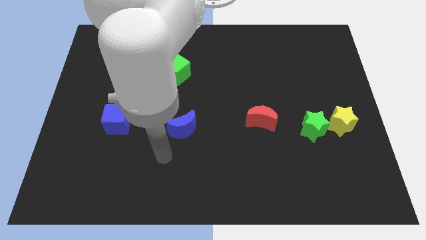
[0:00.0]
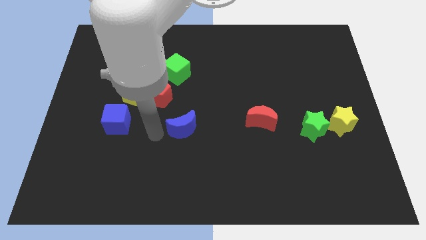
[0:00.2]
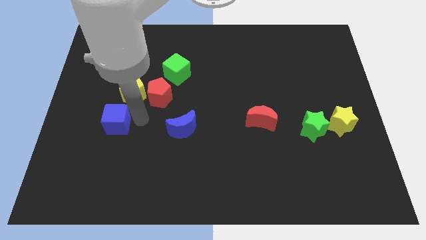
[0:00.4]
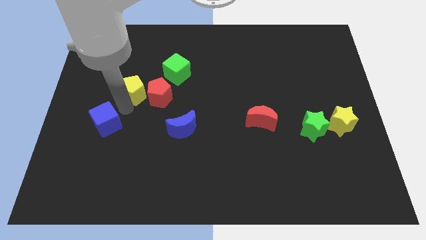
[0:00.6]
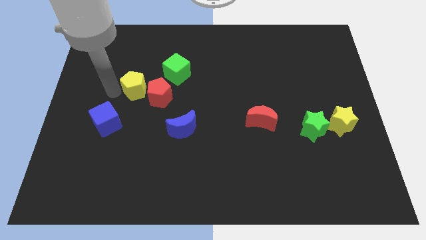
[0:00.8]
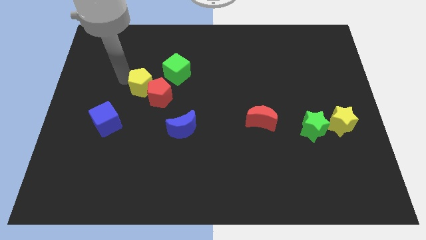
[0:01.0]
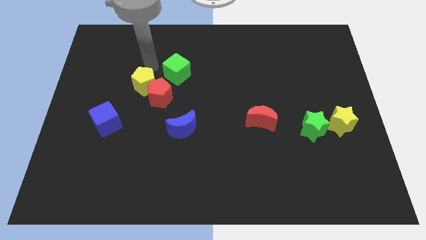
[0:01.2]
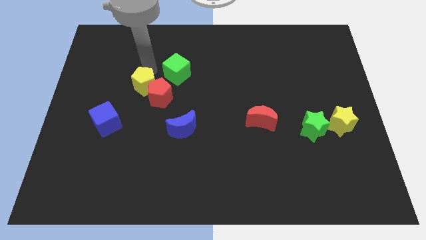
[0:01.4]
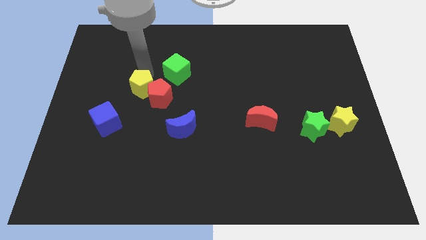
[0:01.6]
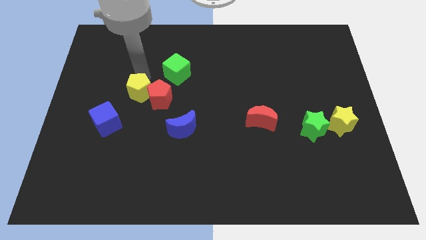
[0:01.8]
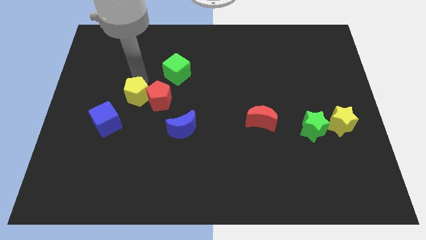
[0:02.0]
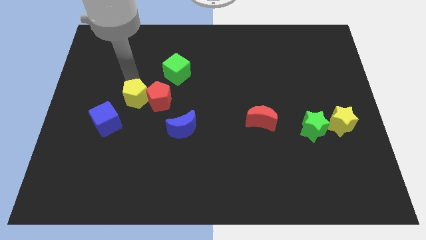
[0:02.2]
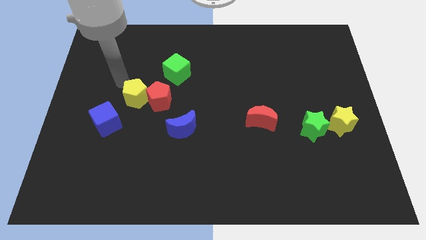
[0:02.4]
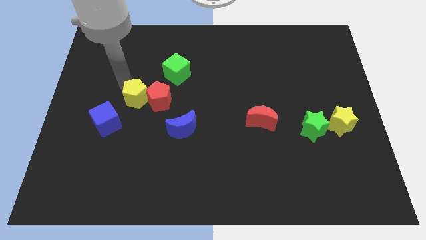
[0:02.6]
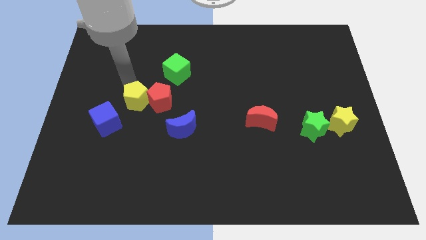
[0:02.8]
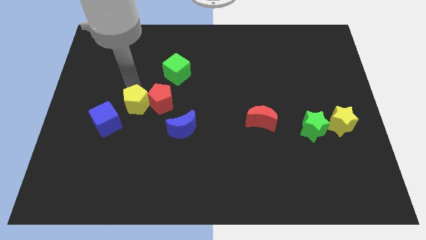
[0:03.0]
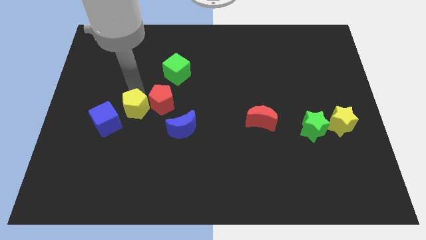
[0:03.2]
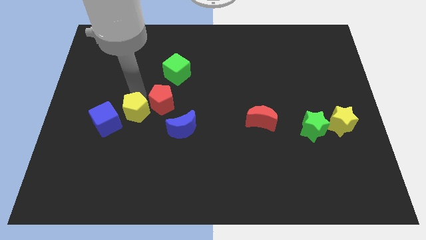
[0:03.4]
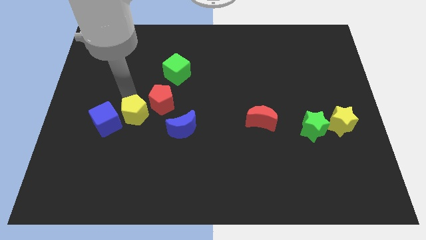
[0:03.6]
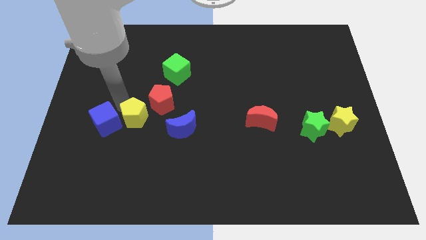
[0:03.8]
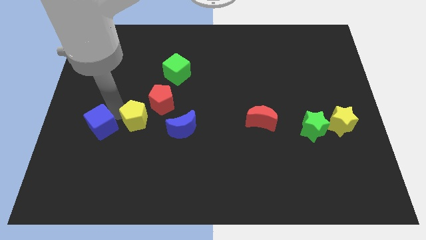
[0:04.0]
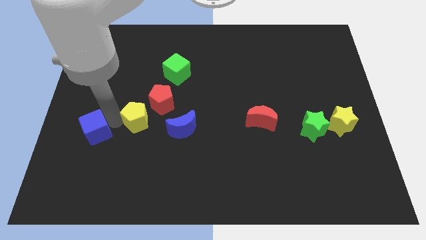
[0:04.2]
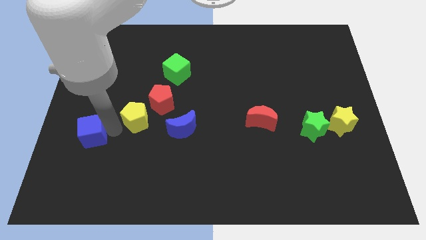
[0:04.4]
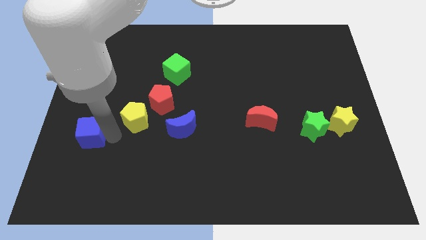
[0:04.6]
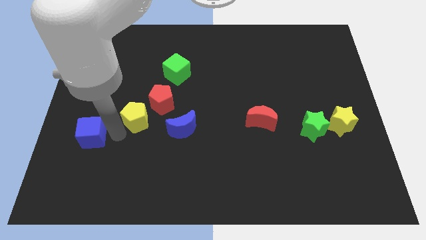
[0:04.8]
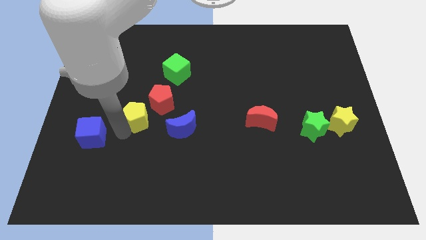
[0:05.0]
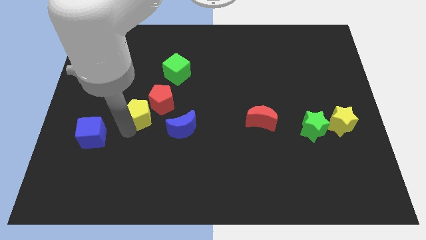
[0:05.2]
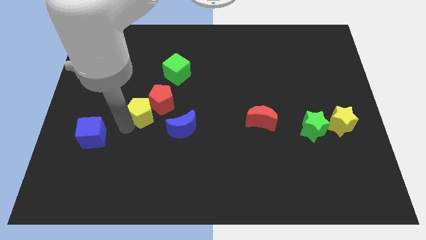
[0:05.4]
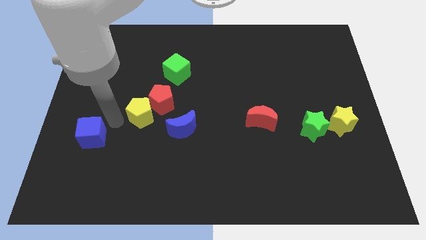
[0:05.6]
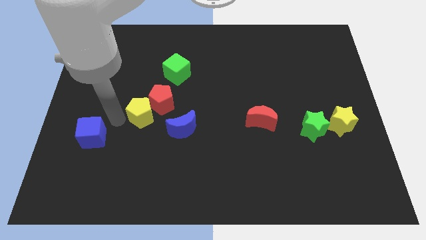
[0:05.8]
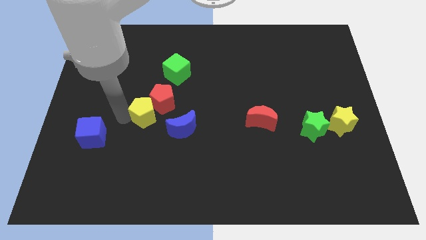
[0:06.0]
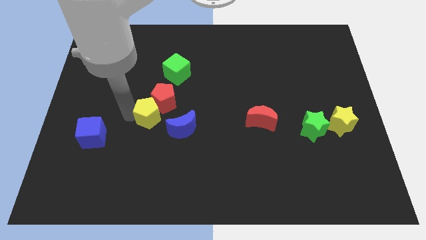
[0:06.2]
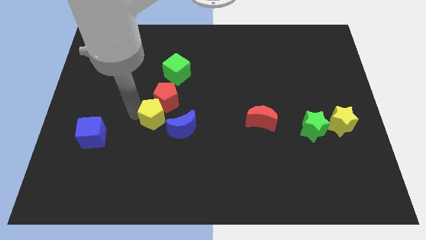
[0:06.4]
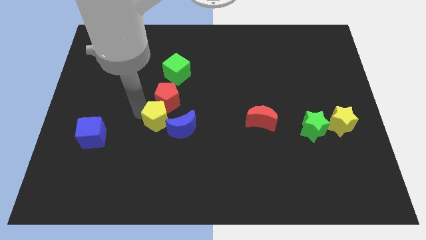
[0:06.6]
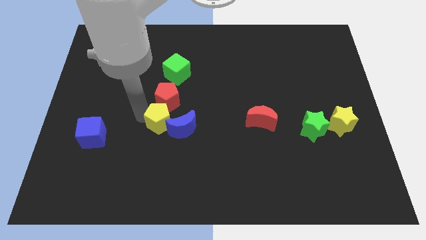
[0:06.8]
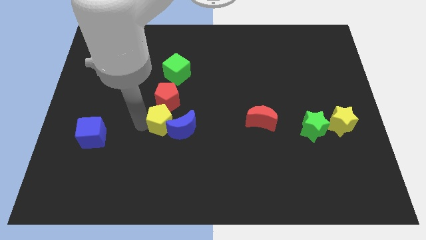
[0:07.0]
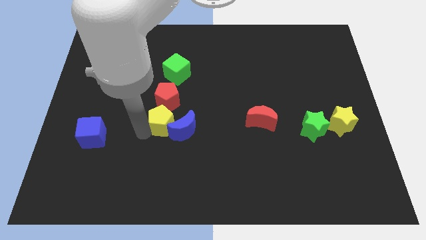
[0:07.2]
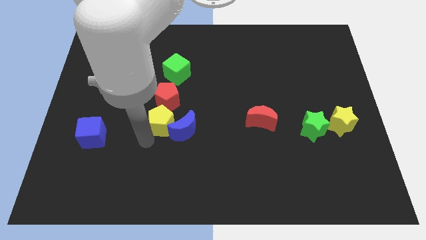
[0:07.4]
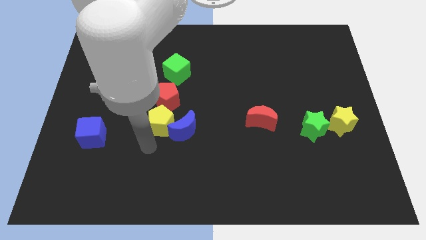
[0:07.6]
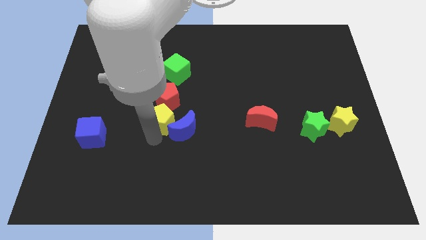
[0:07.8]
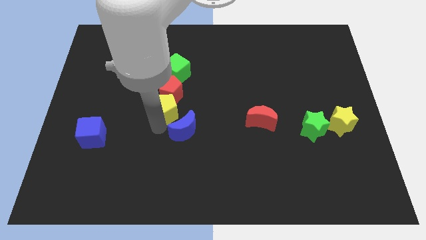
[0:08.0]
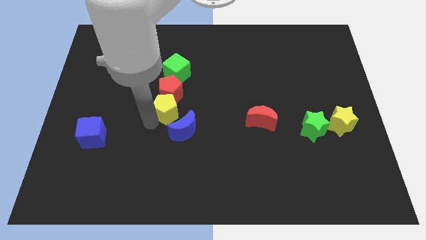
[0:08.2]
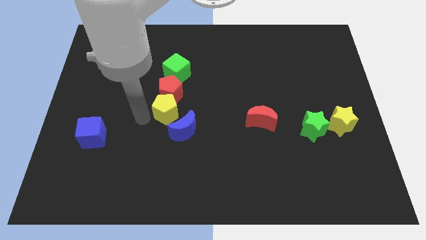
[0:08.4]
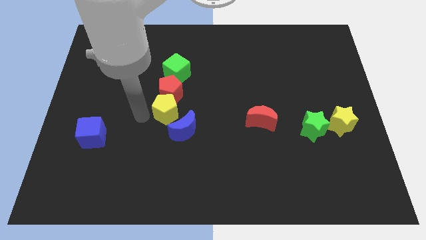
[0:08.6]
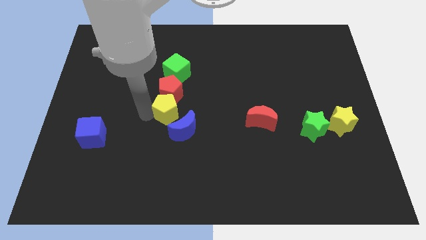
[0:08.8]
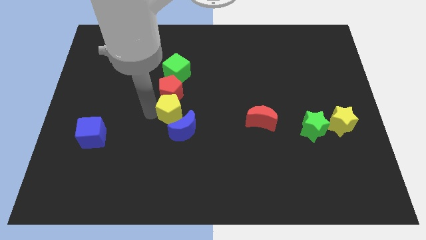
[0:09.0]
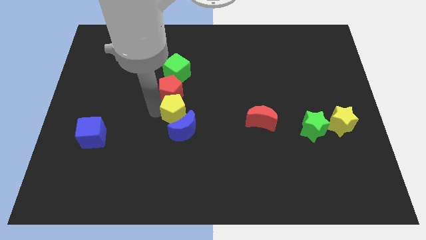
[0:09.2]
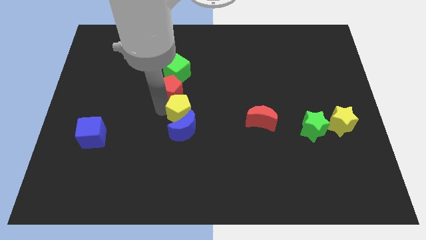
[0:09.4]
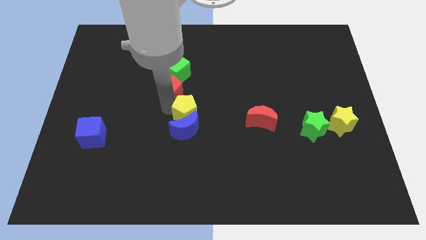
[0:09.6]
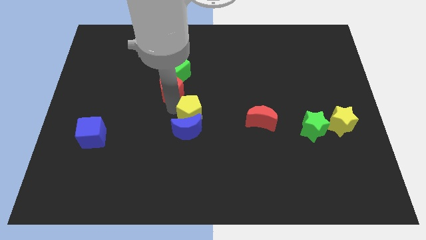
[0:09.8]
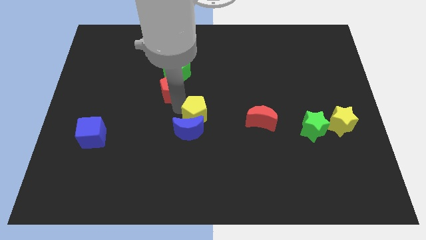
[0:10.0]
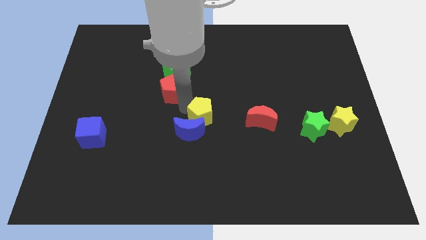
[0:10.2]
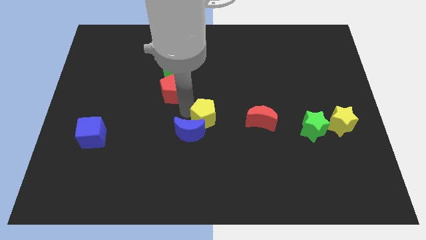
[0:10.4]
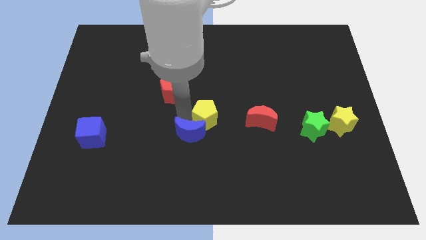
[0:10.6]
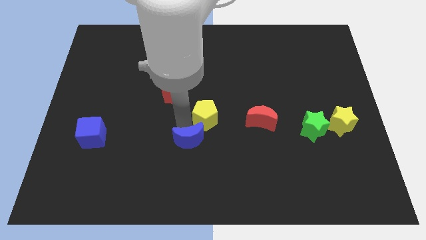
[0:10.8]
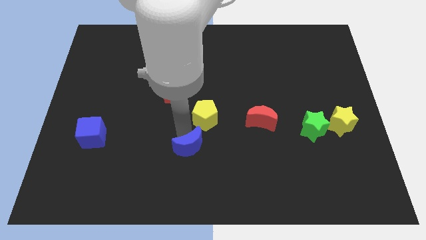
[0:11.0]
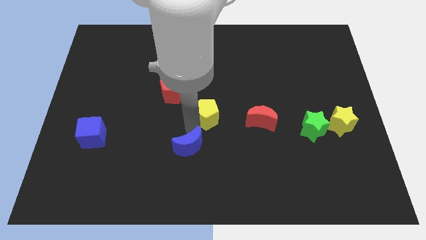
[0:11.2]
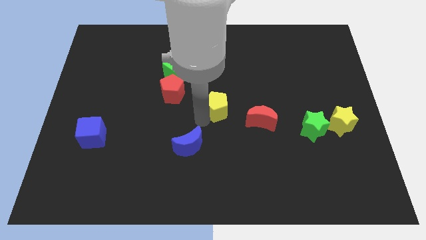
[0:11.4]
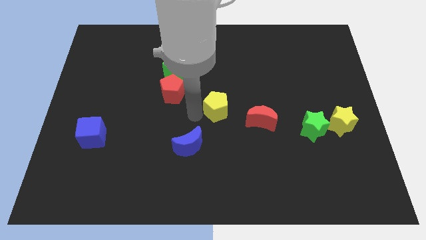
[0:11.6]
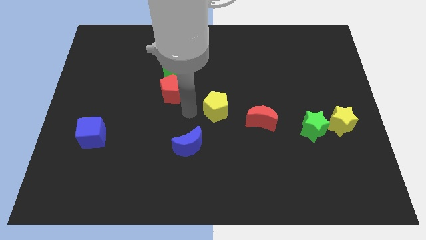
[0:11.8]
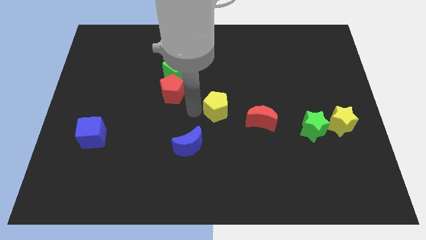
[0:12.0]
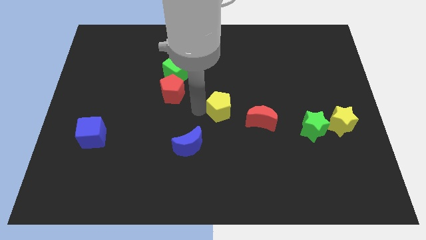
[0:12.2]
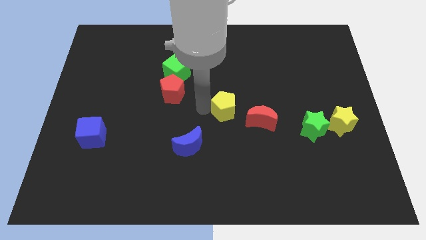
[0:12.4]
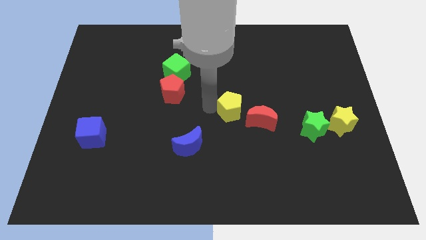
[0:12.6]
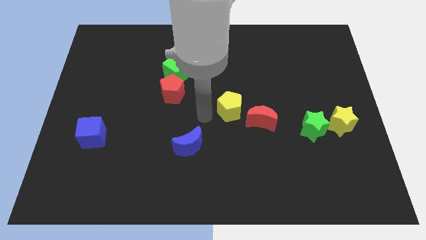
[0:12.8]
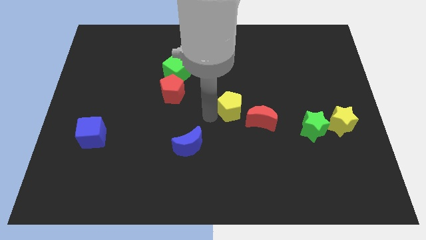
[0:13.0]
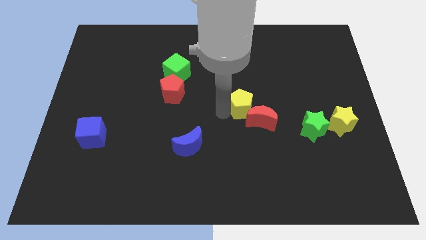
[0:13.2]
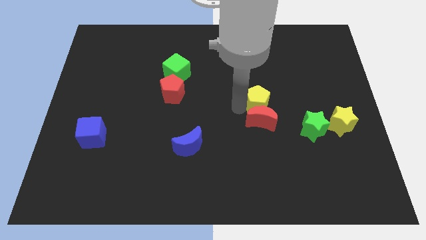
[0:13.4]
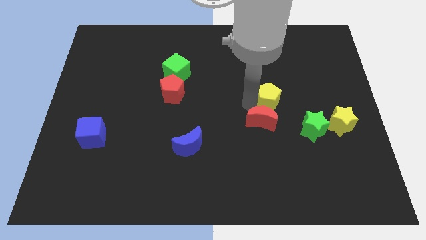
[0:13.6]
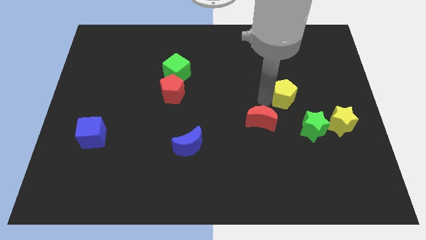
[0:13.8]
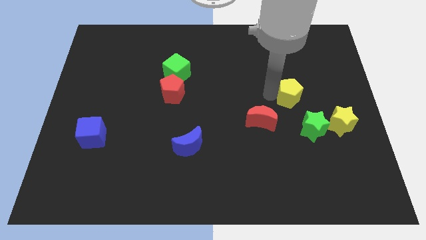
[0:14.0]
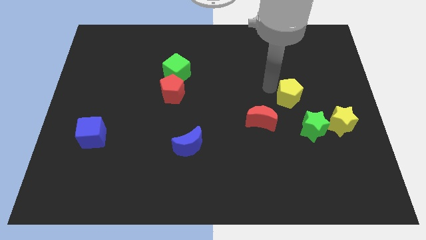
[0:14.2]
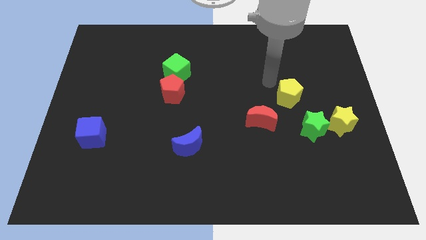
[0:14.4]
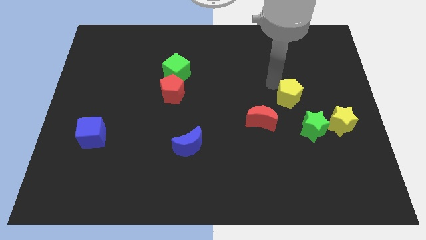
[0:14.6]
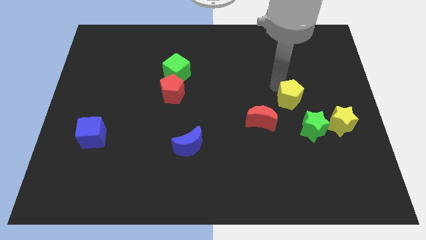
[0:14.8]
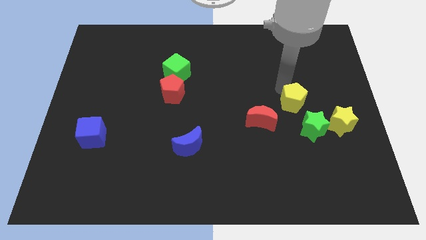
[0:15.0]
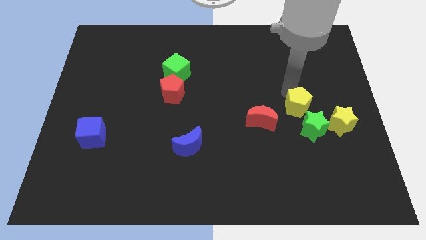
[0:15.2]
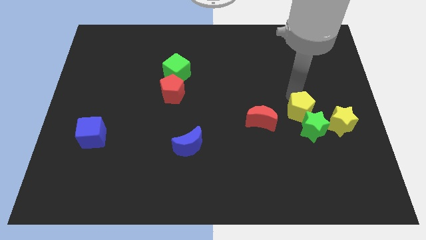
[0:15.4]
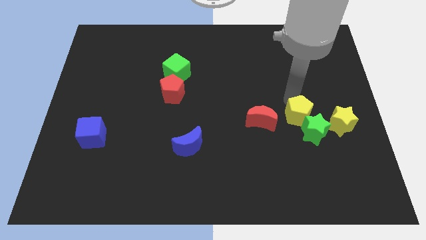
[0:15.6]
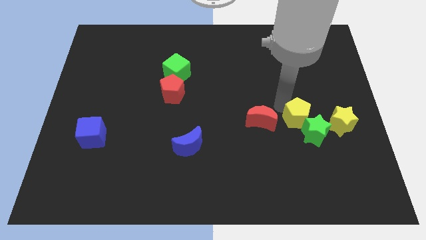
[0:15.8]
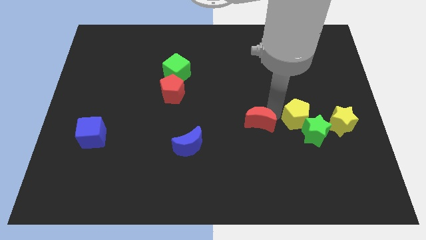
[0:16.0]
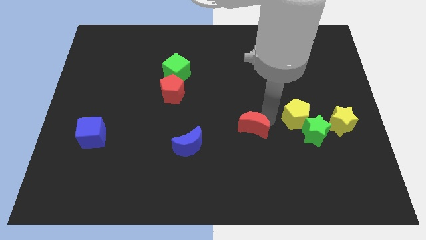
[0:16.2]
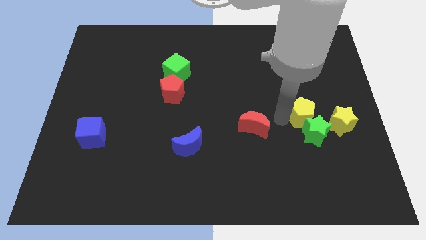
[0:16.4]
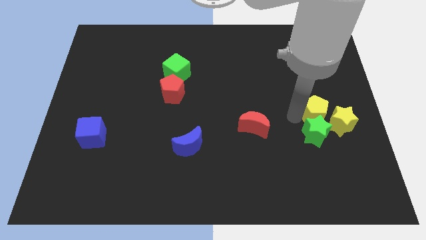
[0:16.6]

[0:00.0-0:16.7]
put the yellow pentagon towards the yellow star
